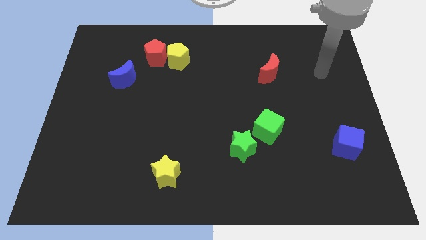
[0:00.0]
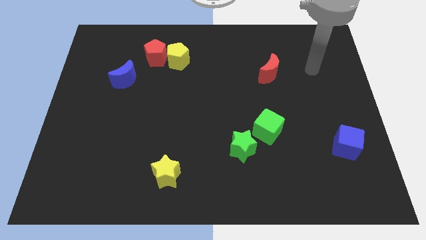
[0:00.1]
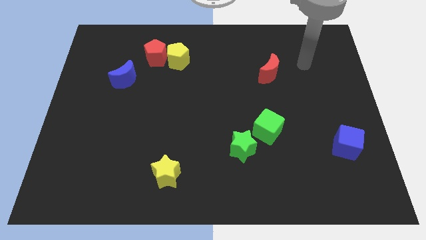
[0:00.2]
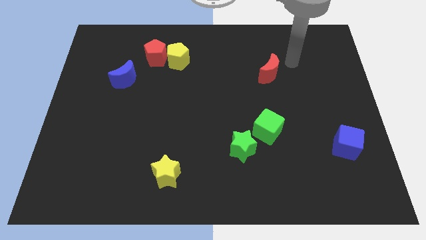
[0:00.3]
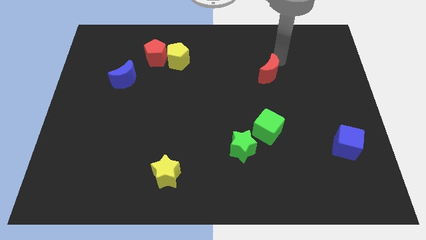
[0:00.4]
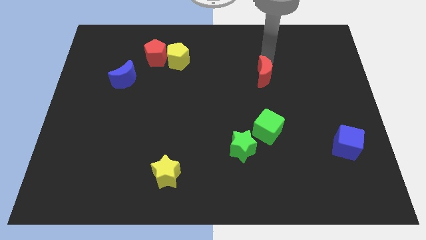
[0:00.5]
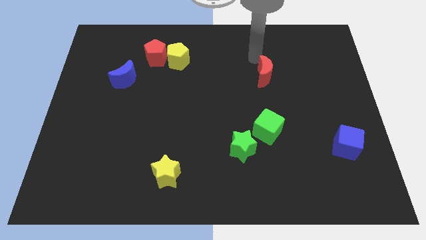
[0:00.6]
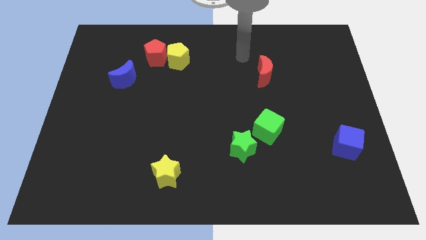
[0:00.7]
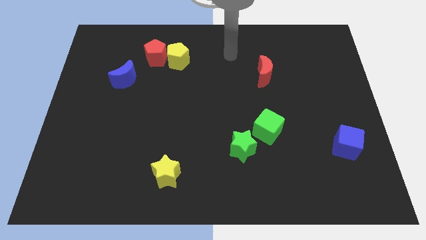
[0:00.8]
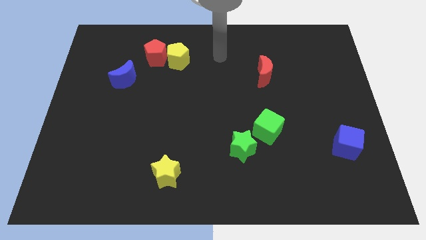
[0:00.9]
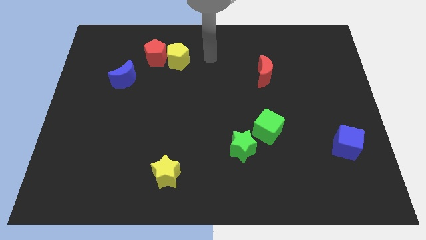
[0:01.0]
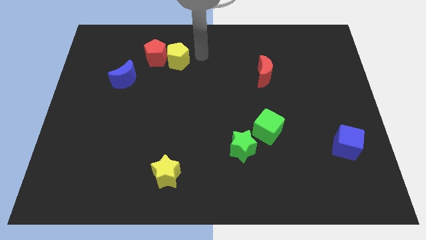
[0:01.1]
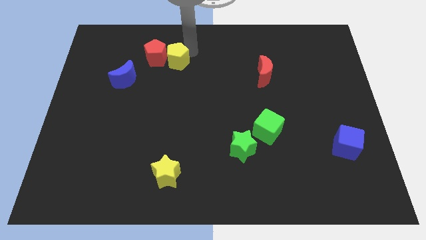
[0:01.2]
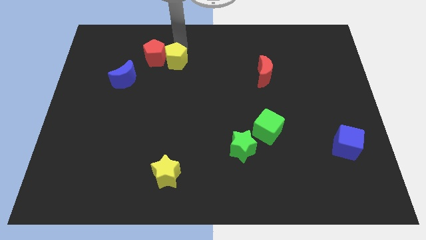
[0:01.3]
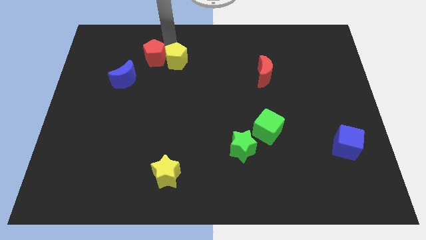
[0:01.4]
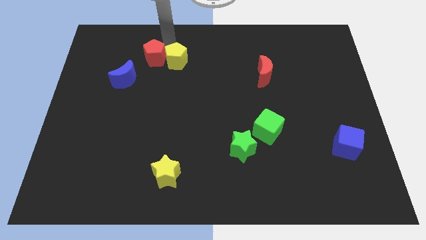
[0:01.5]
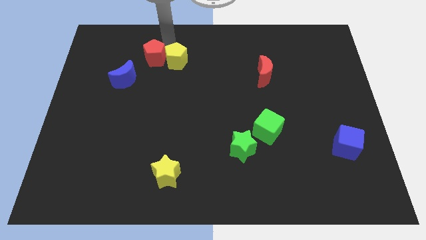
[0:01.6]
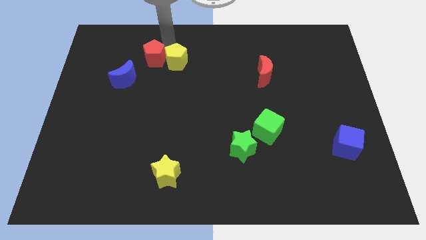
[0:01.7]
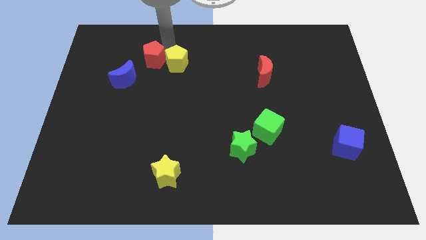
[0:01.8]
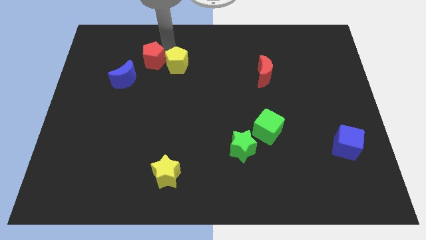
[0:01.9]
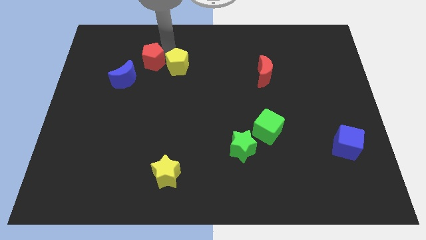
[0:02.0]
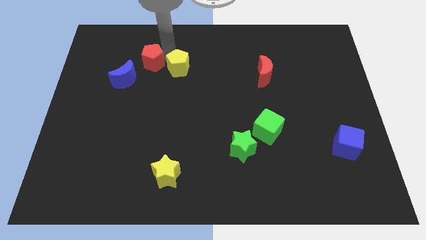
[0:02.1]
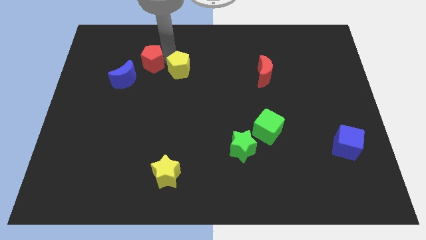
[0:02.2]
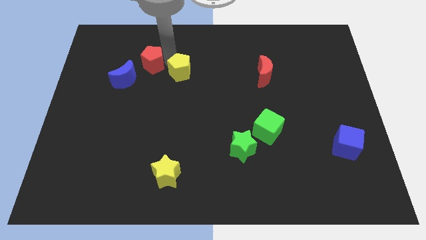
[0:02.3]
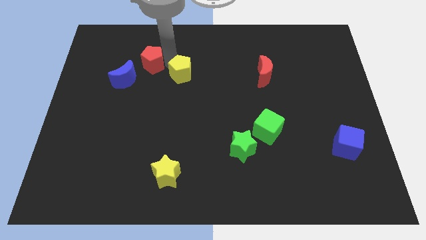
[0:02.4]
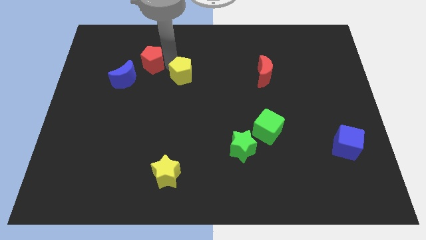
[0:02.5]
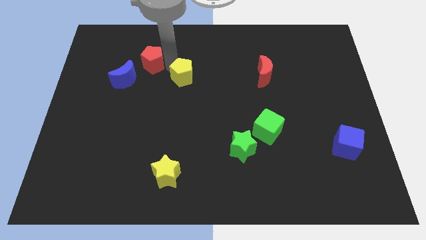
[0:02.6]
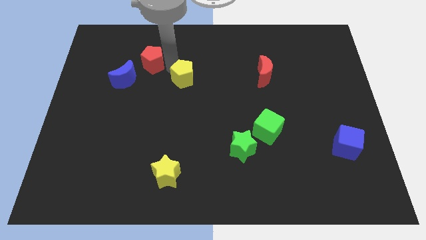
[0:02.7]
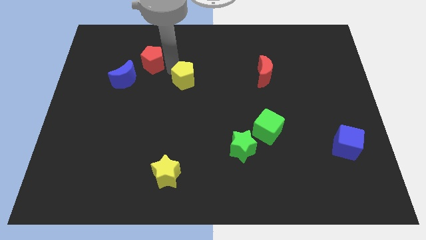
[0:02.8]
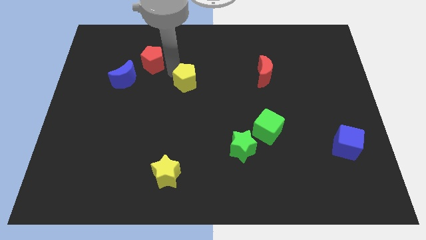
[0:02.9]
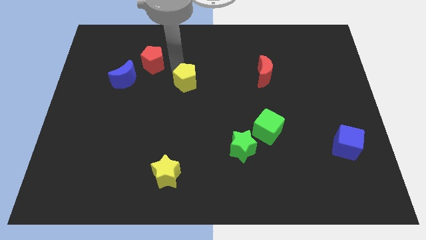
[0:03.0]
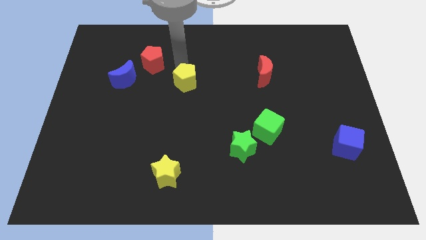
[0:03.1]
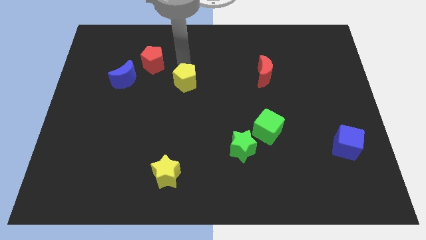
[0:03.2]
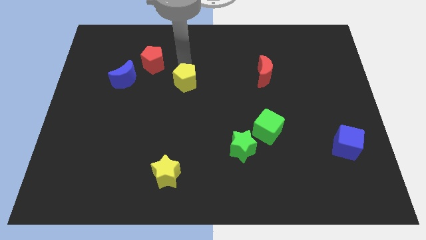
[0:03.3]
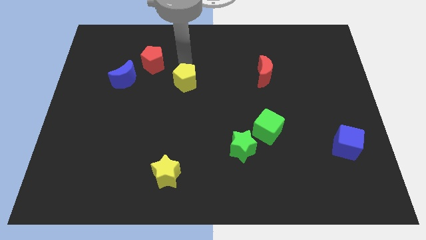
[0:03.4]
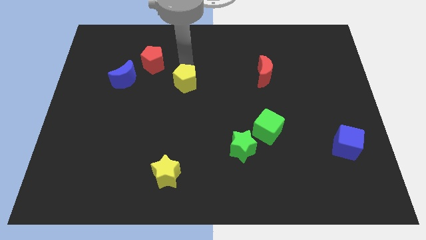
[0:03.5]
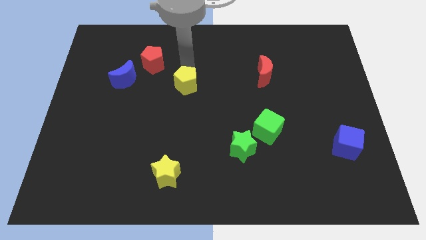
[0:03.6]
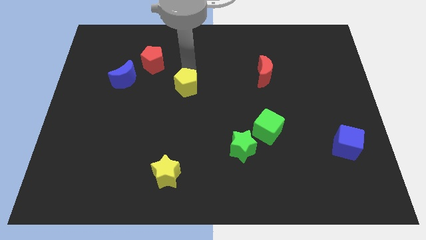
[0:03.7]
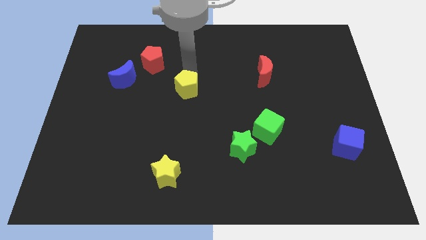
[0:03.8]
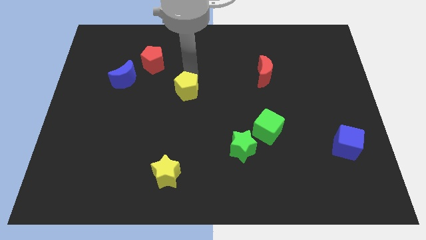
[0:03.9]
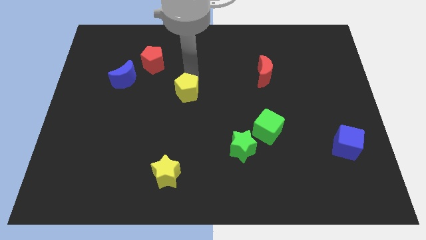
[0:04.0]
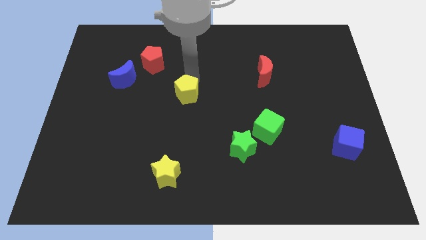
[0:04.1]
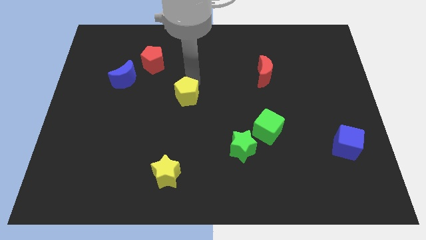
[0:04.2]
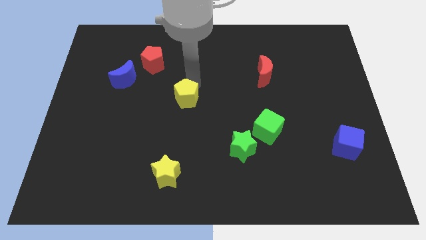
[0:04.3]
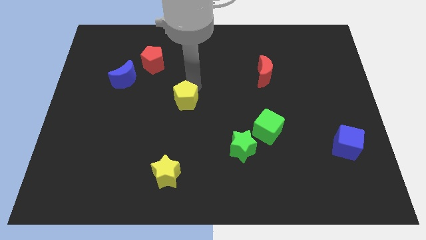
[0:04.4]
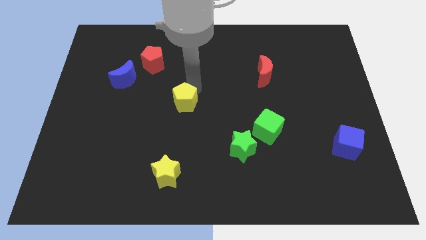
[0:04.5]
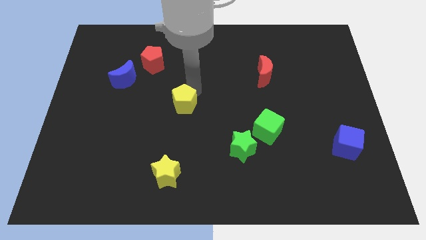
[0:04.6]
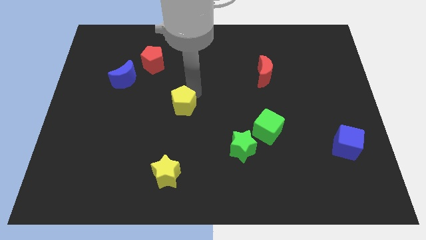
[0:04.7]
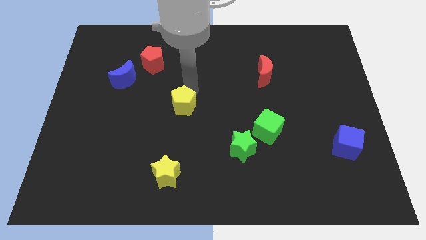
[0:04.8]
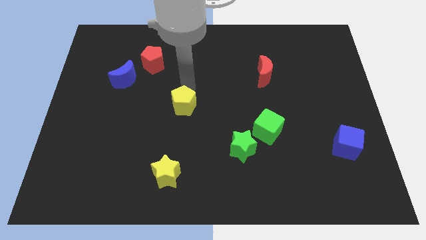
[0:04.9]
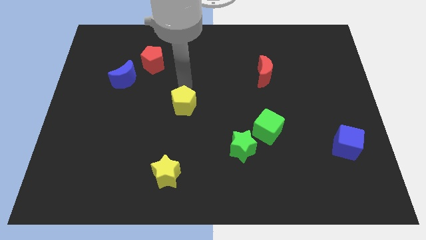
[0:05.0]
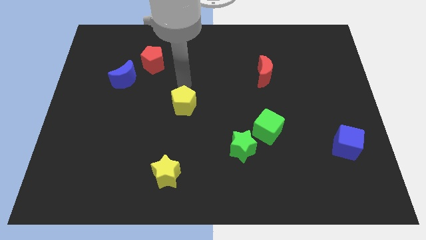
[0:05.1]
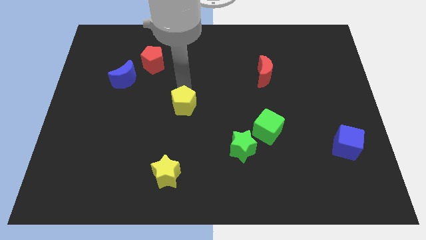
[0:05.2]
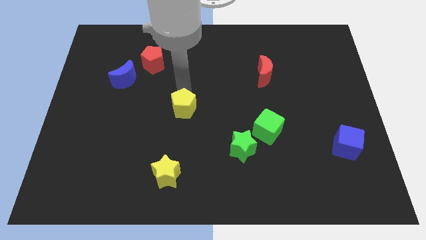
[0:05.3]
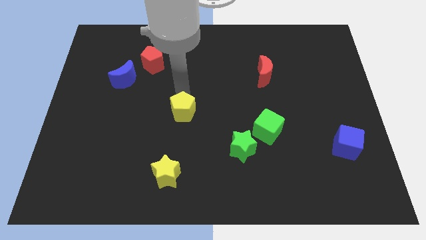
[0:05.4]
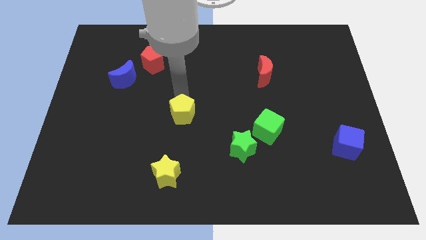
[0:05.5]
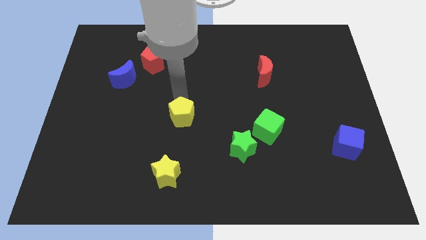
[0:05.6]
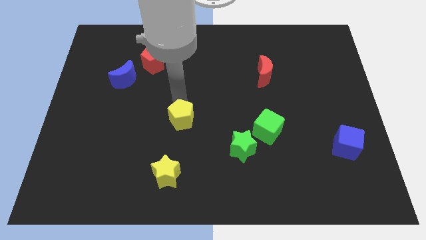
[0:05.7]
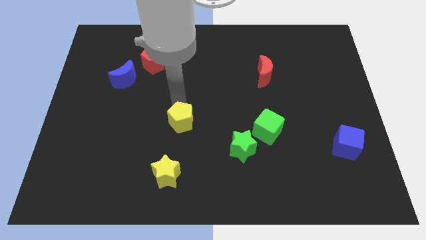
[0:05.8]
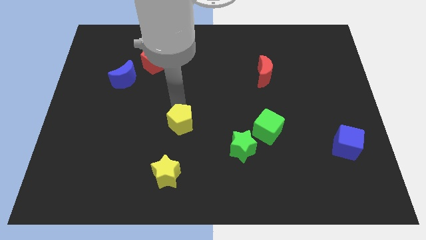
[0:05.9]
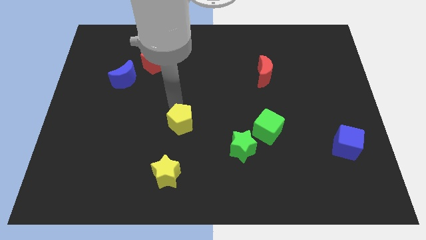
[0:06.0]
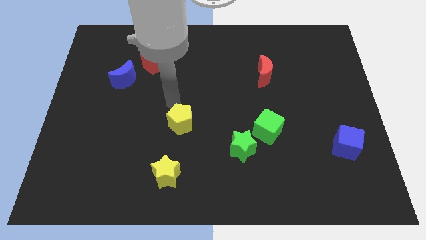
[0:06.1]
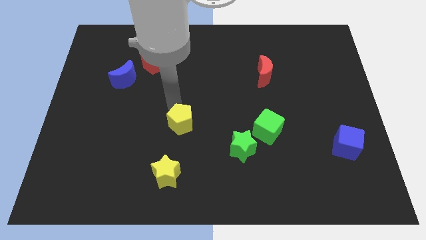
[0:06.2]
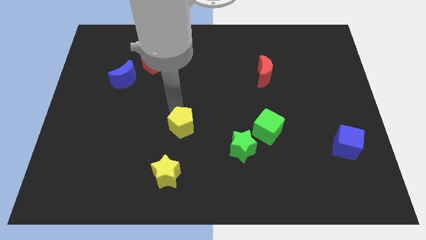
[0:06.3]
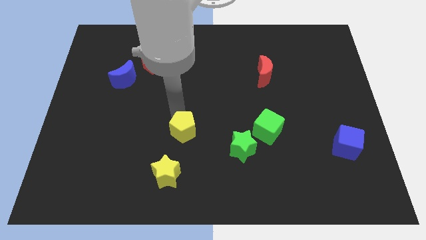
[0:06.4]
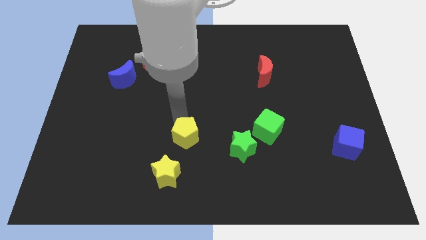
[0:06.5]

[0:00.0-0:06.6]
move the yellow pentagon to the top right side of the yellow star
